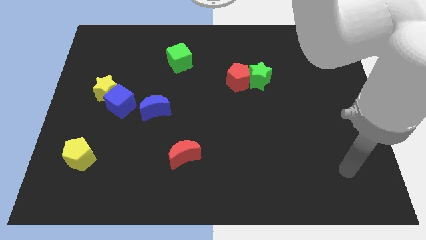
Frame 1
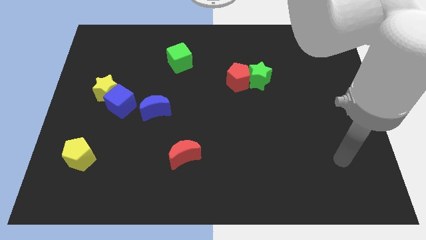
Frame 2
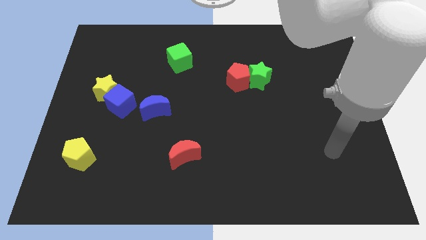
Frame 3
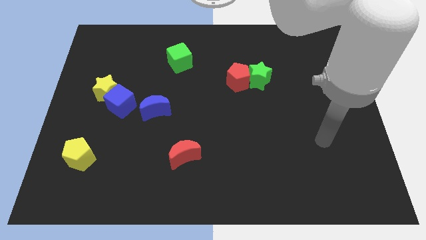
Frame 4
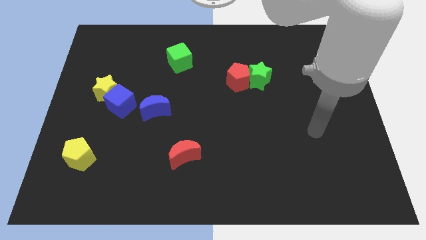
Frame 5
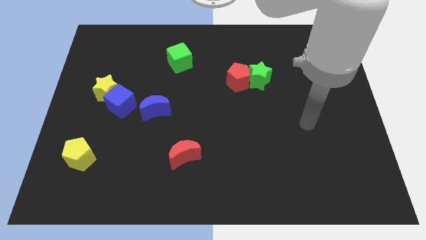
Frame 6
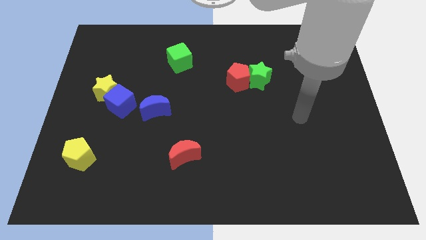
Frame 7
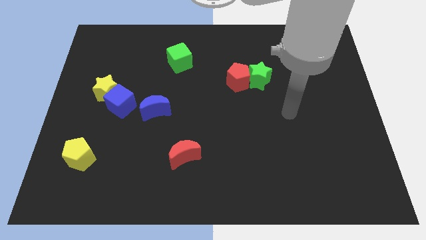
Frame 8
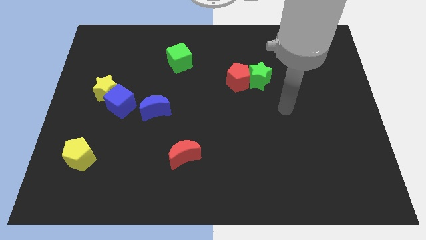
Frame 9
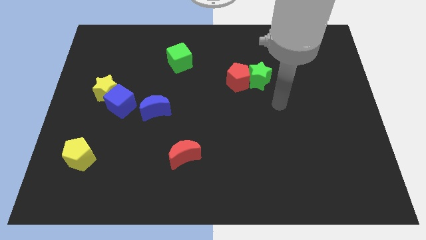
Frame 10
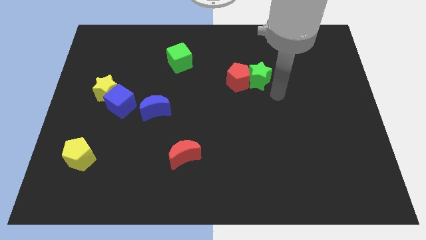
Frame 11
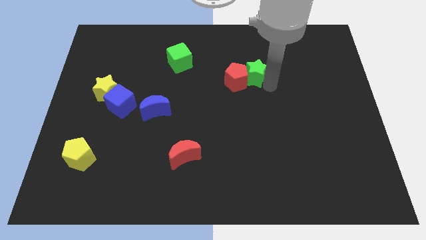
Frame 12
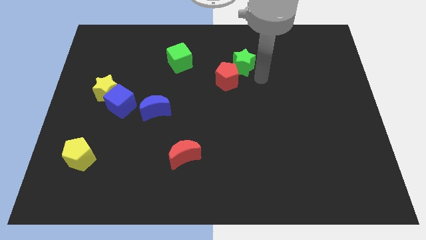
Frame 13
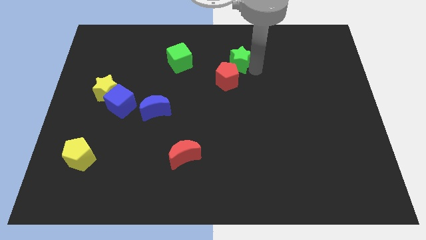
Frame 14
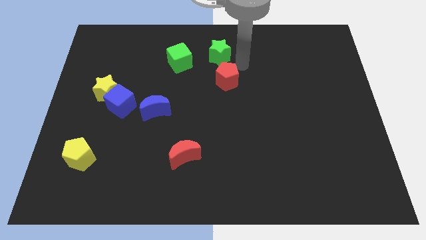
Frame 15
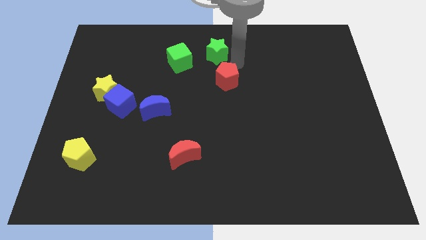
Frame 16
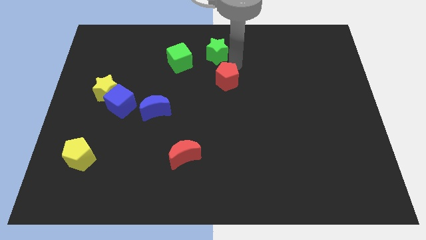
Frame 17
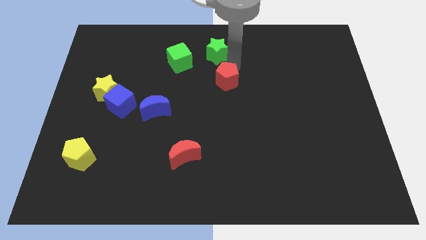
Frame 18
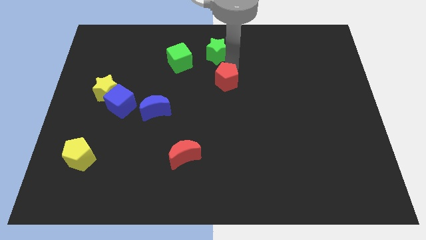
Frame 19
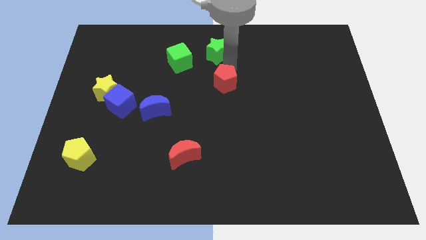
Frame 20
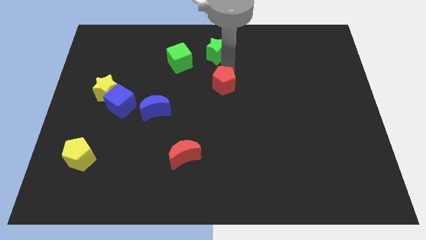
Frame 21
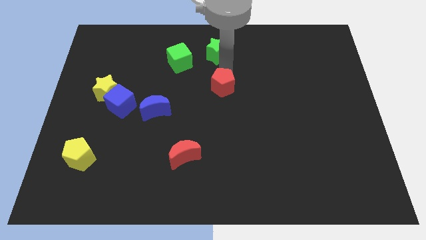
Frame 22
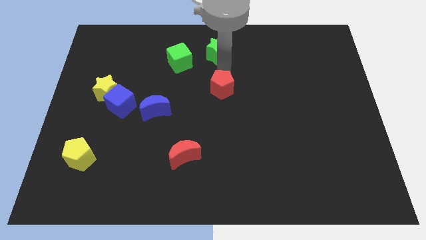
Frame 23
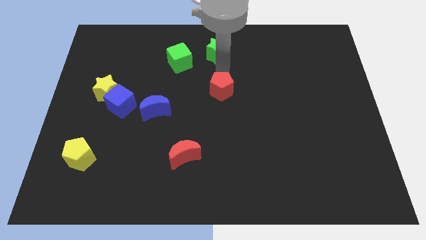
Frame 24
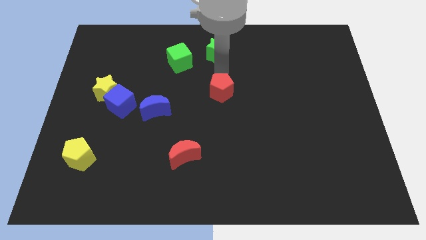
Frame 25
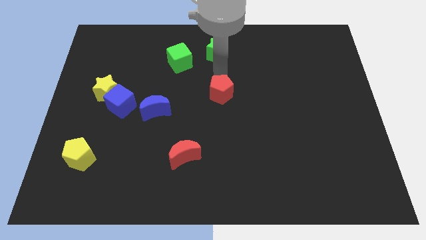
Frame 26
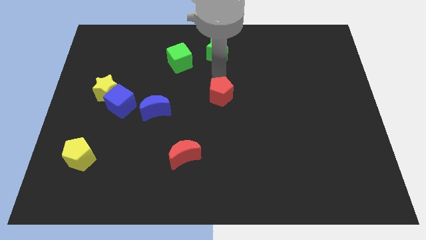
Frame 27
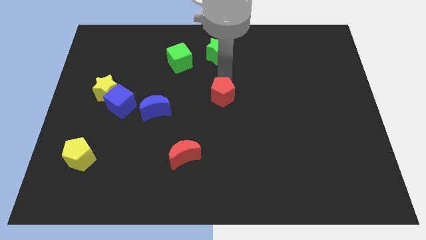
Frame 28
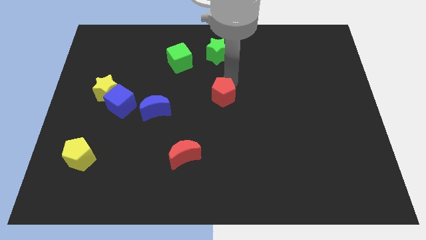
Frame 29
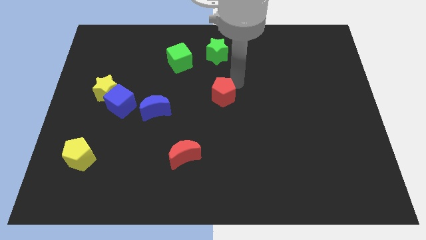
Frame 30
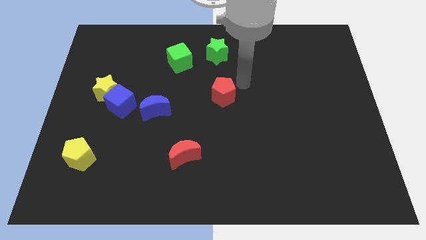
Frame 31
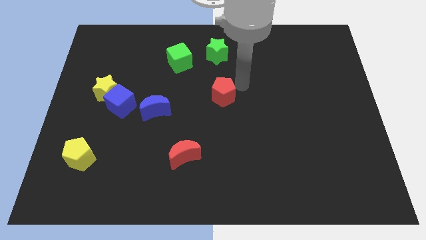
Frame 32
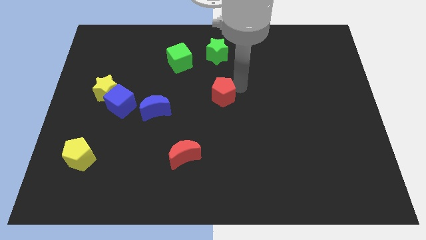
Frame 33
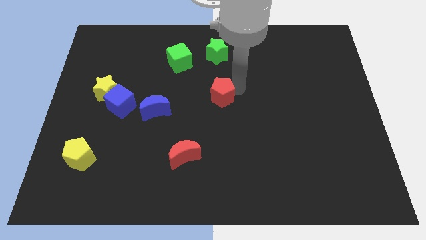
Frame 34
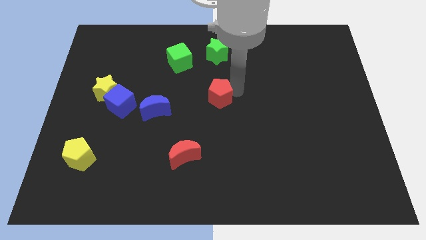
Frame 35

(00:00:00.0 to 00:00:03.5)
push the red pentagon down and left diagonally a little

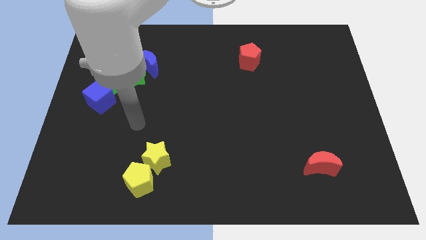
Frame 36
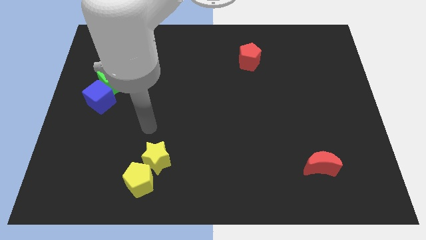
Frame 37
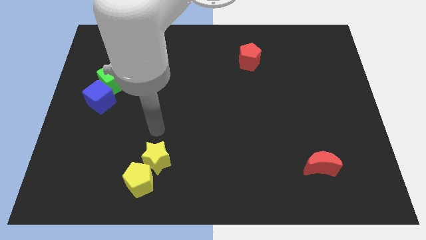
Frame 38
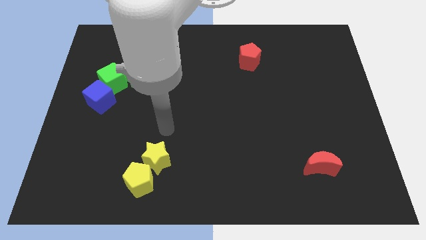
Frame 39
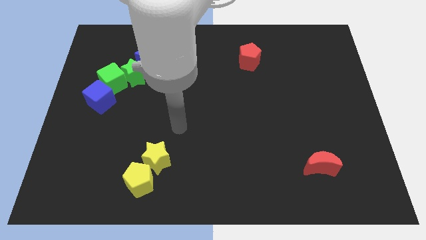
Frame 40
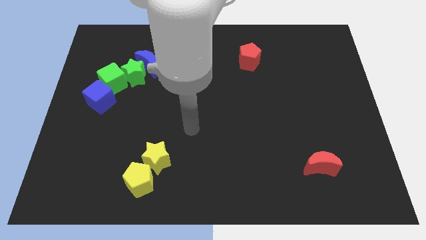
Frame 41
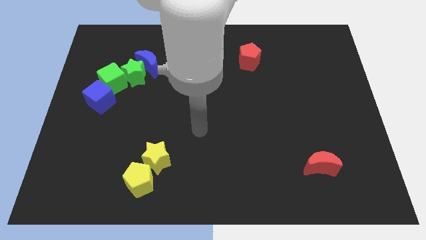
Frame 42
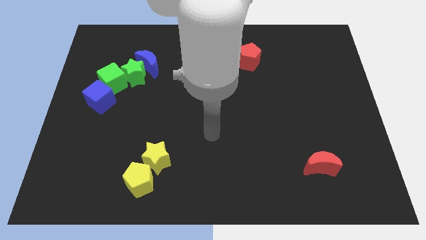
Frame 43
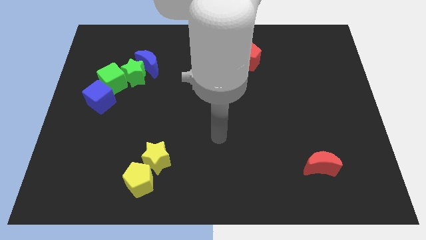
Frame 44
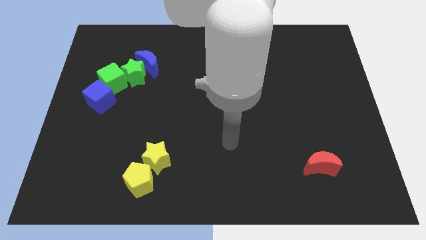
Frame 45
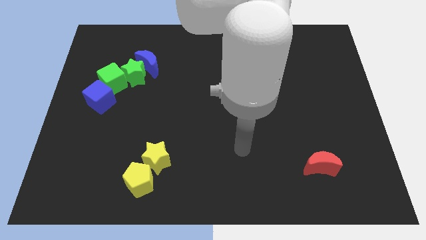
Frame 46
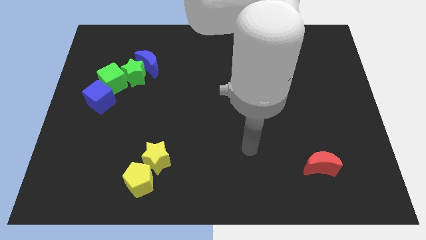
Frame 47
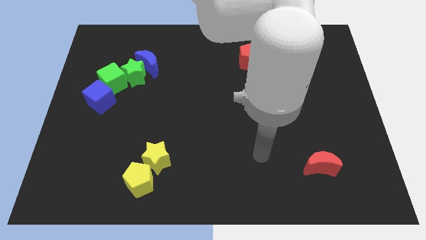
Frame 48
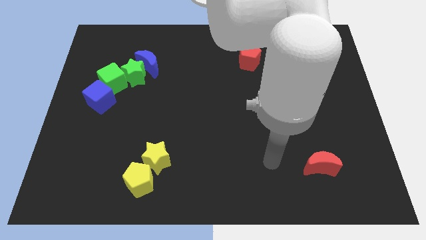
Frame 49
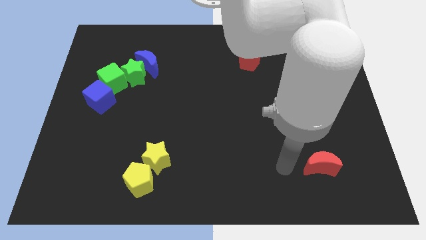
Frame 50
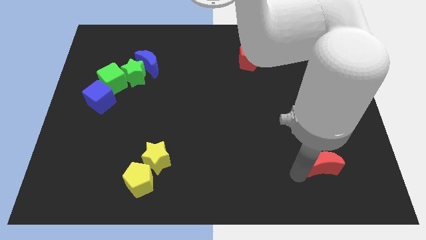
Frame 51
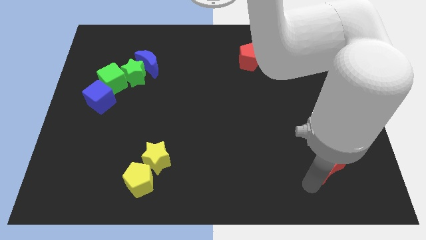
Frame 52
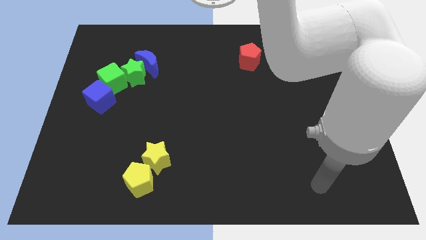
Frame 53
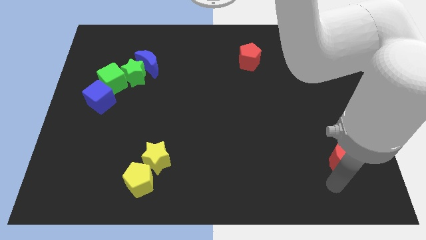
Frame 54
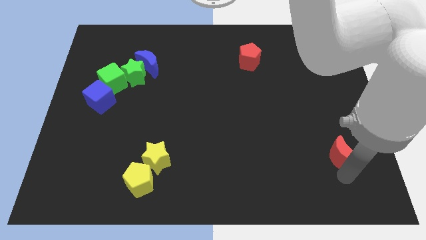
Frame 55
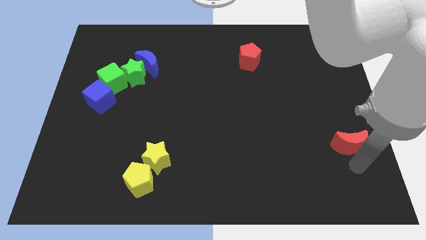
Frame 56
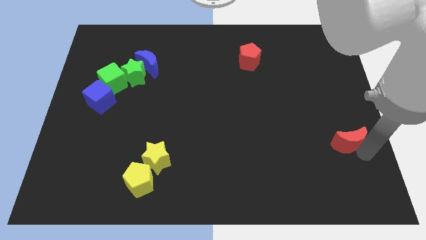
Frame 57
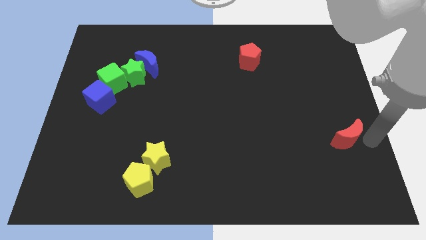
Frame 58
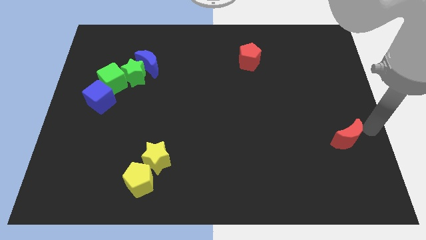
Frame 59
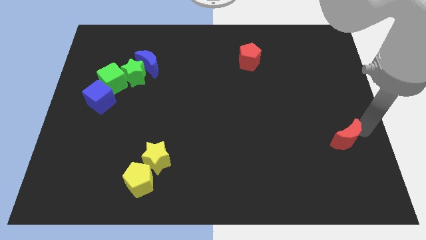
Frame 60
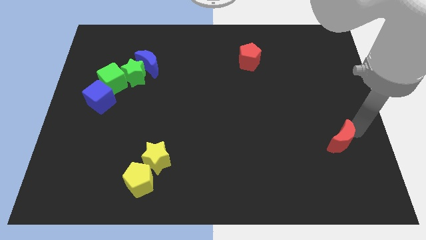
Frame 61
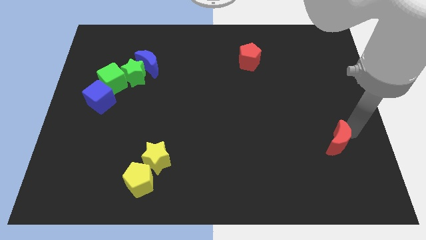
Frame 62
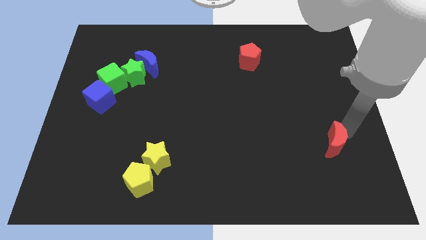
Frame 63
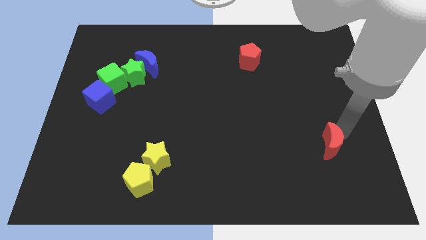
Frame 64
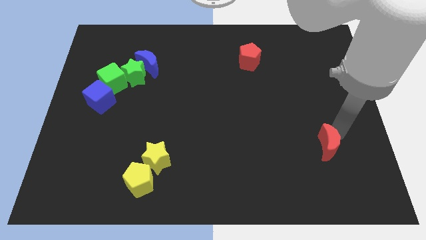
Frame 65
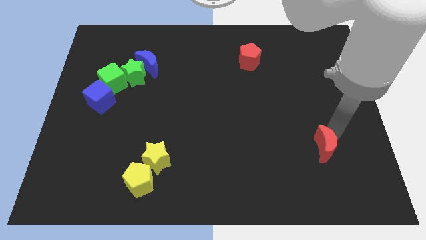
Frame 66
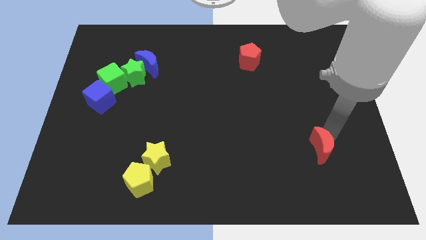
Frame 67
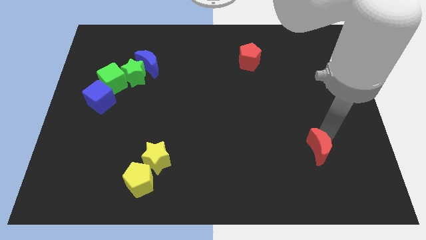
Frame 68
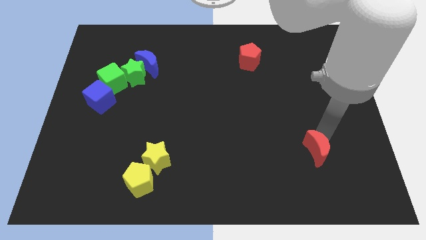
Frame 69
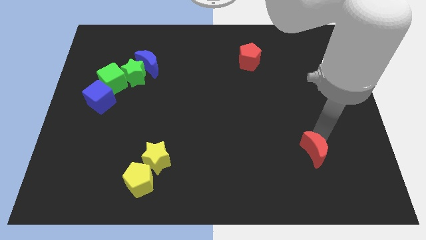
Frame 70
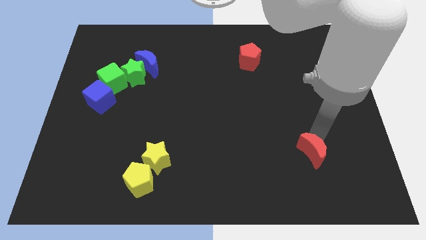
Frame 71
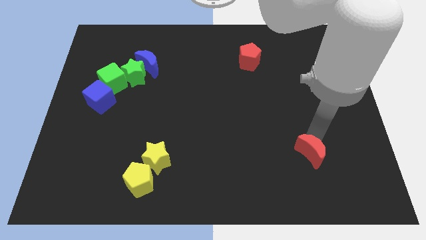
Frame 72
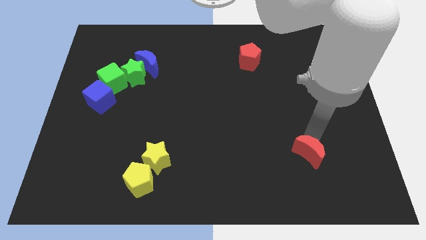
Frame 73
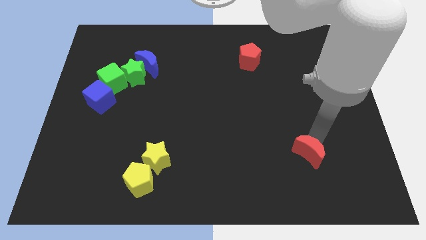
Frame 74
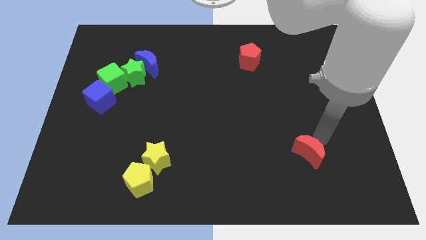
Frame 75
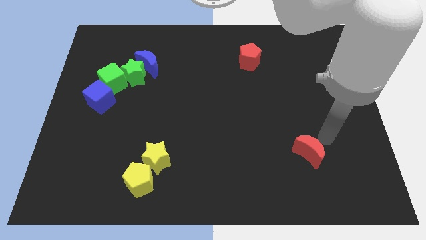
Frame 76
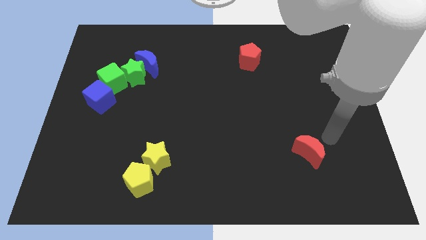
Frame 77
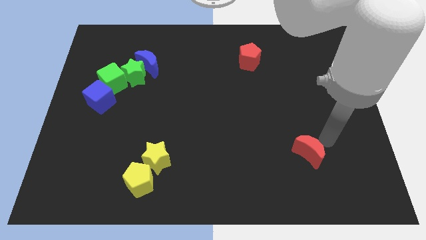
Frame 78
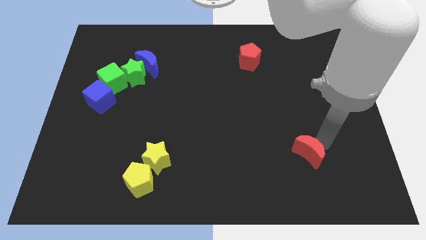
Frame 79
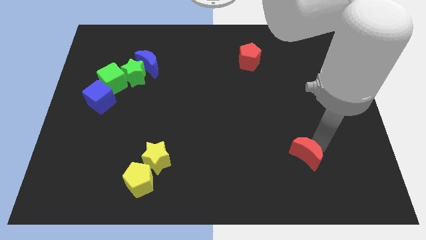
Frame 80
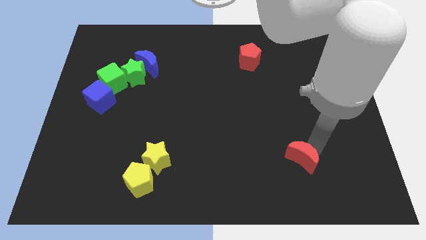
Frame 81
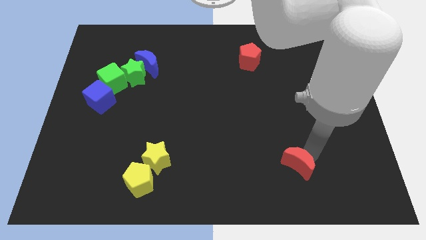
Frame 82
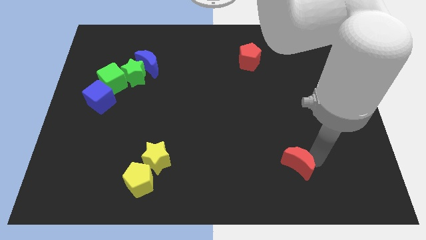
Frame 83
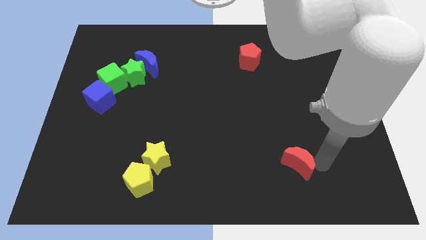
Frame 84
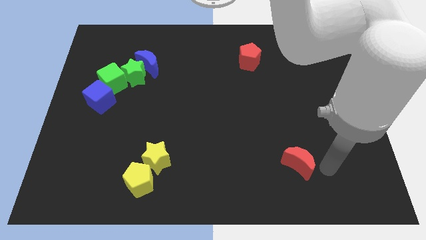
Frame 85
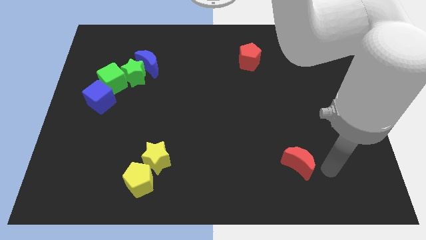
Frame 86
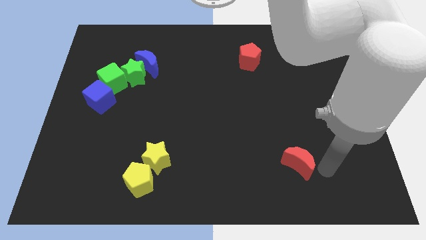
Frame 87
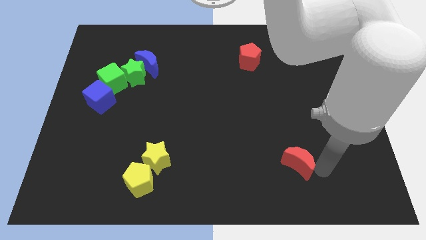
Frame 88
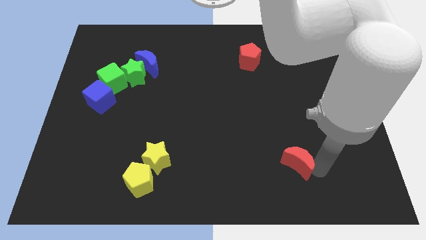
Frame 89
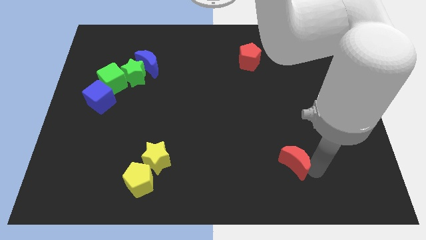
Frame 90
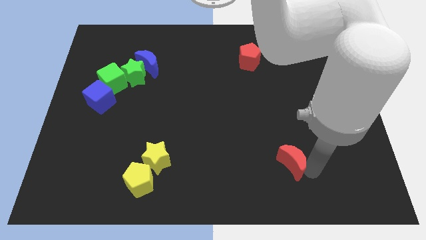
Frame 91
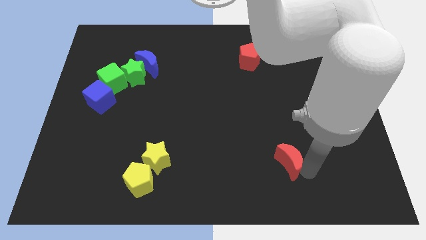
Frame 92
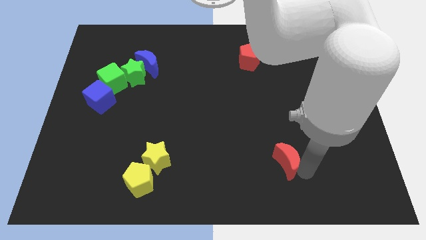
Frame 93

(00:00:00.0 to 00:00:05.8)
slightly slide the red moon left
